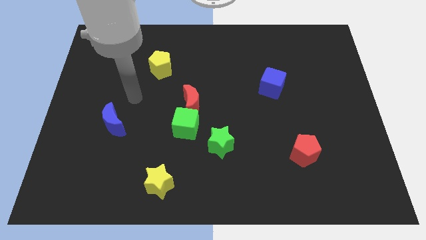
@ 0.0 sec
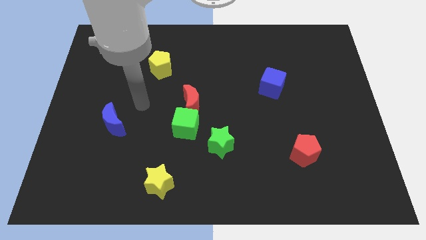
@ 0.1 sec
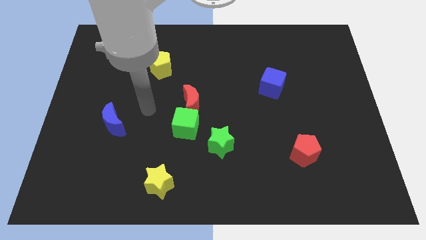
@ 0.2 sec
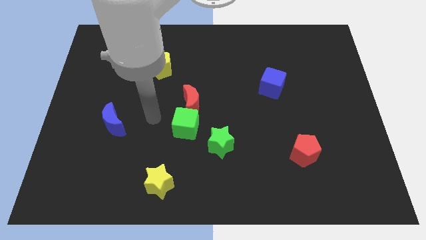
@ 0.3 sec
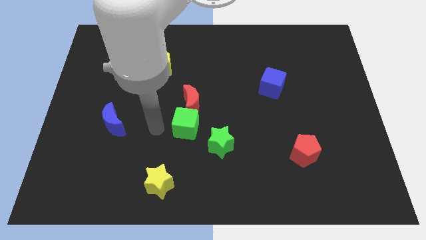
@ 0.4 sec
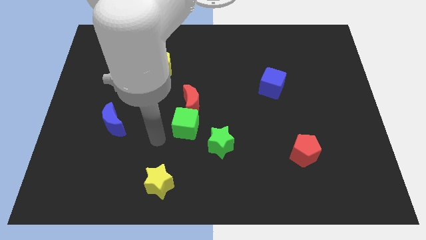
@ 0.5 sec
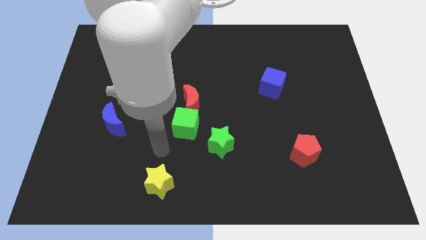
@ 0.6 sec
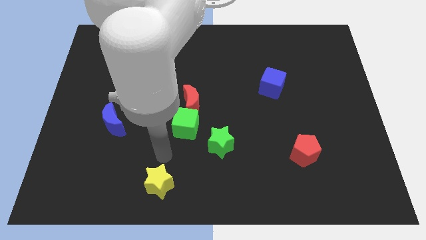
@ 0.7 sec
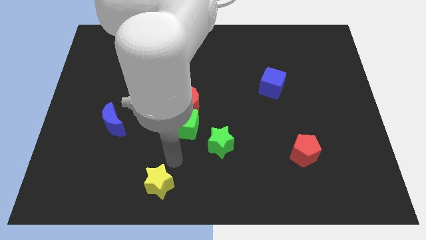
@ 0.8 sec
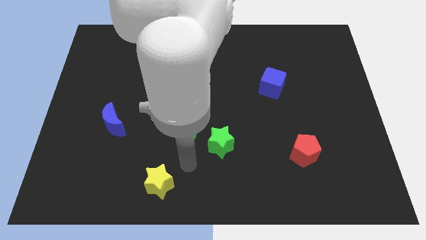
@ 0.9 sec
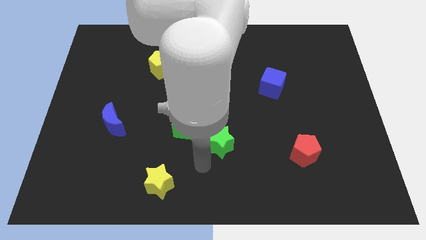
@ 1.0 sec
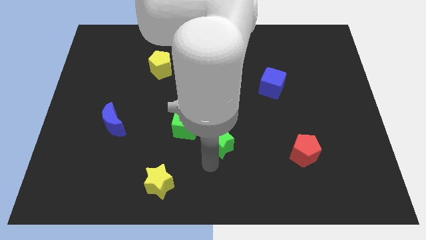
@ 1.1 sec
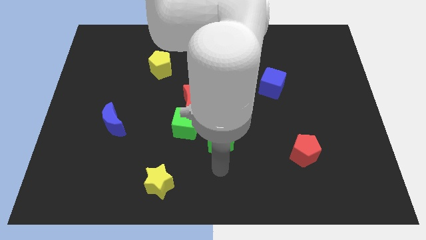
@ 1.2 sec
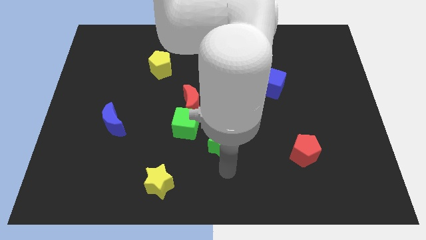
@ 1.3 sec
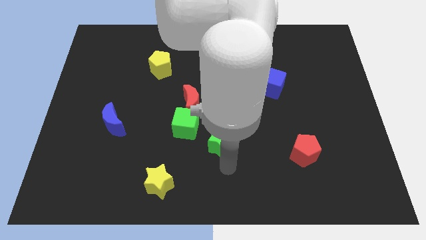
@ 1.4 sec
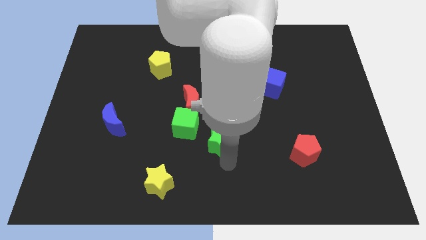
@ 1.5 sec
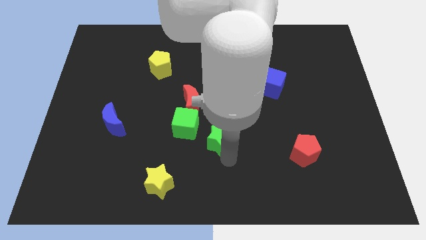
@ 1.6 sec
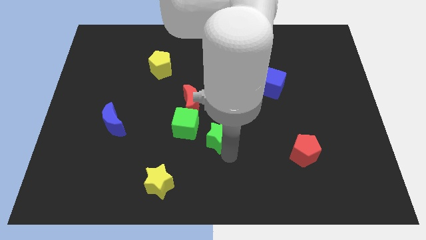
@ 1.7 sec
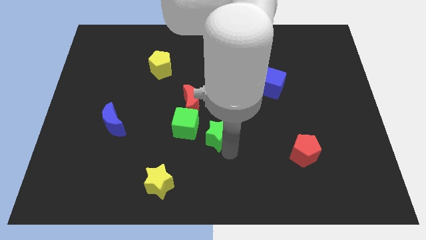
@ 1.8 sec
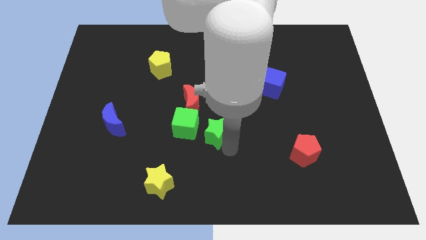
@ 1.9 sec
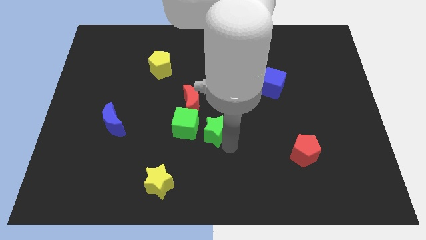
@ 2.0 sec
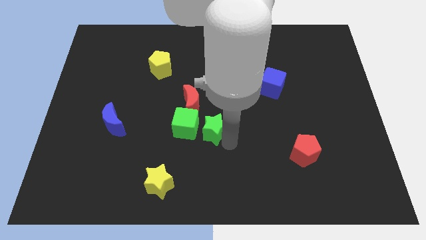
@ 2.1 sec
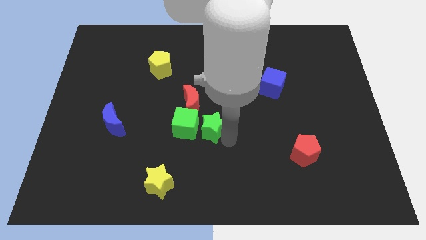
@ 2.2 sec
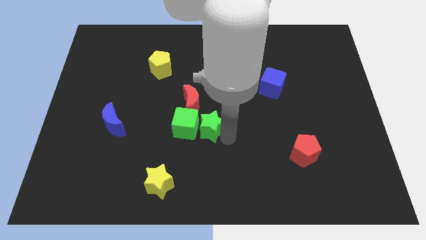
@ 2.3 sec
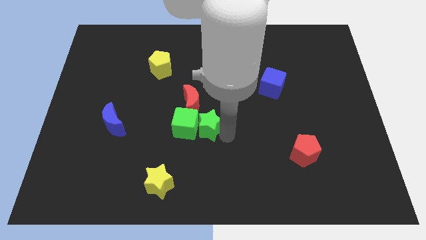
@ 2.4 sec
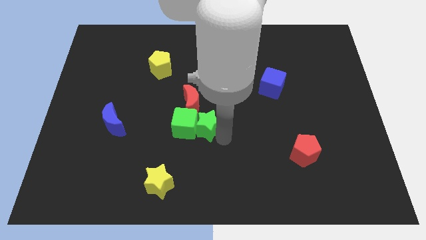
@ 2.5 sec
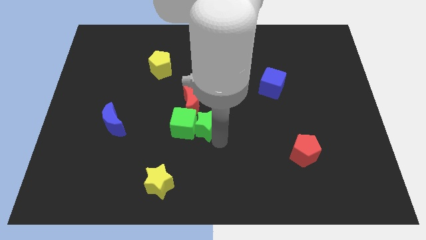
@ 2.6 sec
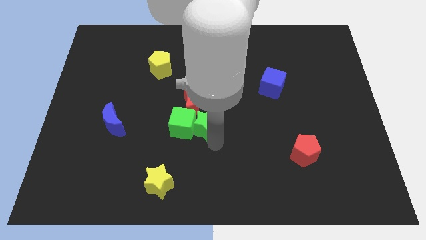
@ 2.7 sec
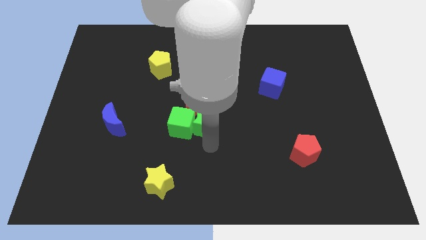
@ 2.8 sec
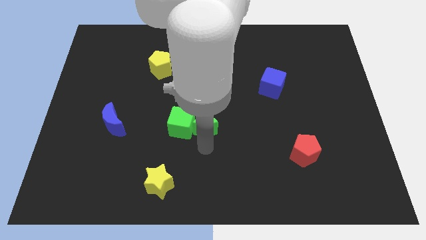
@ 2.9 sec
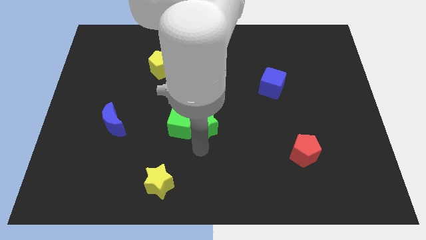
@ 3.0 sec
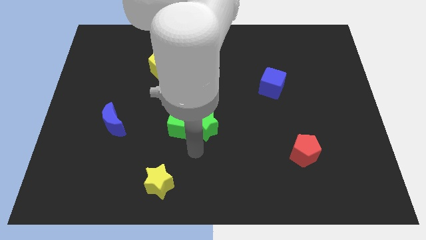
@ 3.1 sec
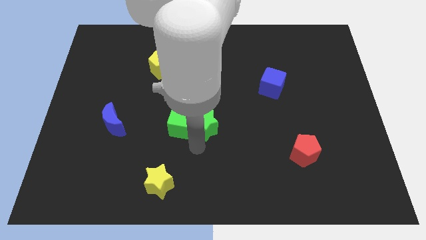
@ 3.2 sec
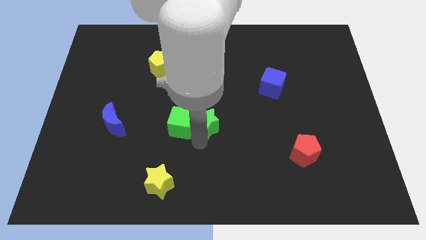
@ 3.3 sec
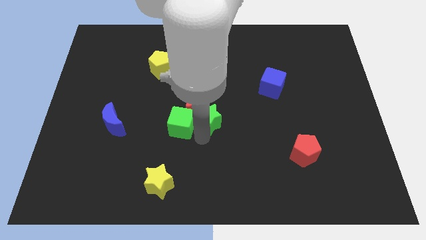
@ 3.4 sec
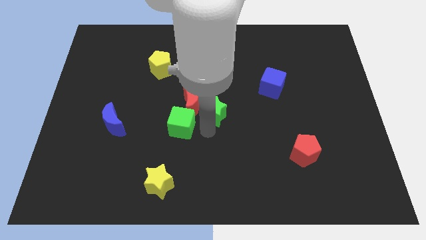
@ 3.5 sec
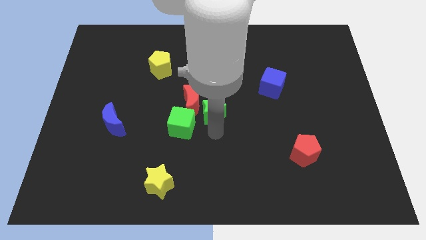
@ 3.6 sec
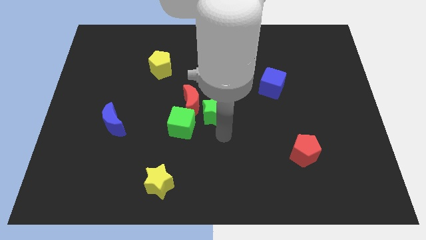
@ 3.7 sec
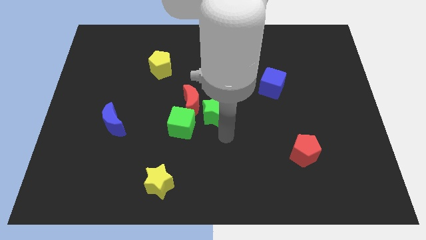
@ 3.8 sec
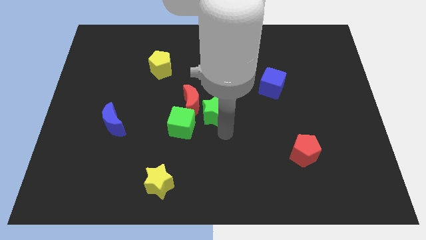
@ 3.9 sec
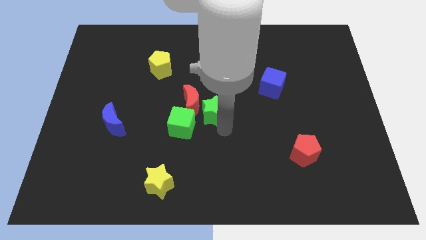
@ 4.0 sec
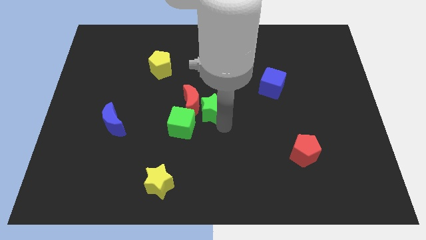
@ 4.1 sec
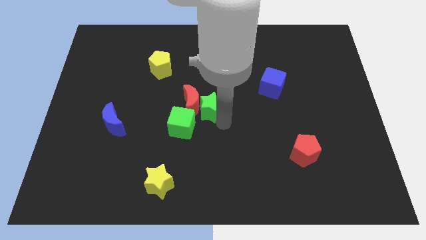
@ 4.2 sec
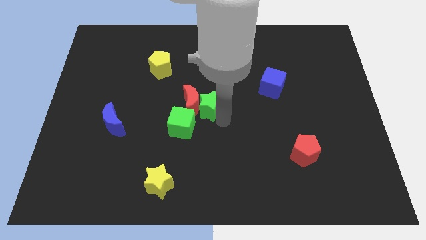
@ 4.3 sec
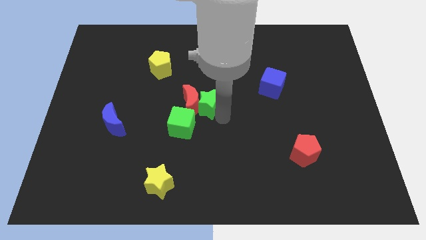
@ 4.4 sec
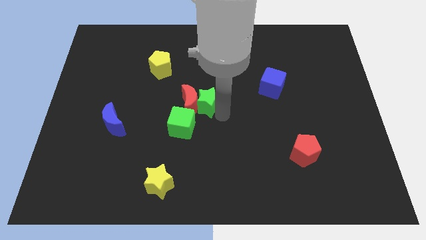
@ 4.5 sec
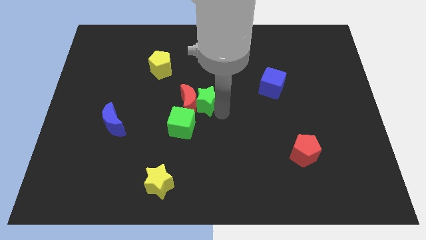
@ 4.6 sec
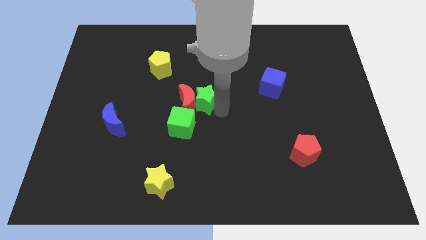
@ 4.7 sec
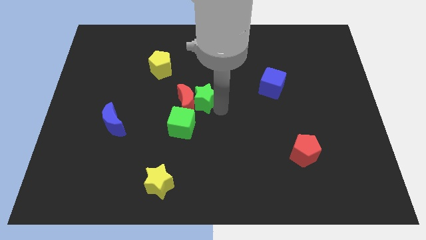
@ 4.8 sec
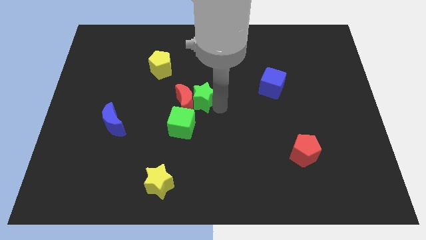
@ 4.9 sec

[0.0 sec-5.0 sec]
put the green star to the top side of the green cube

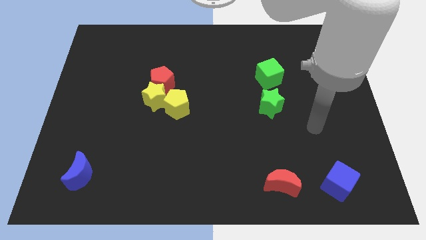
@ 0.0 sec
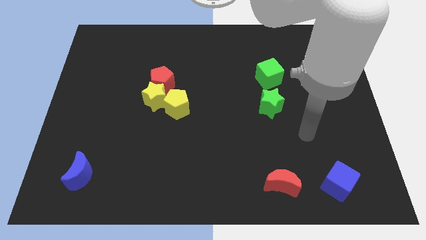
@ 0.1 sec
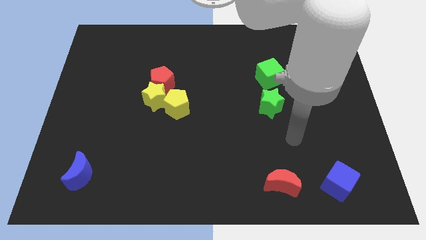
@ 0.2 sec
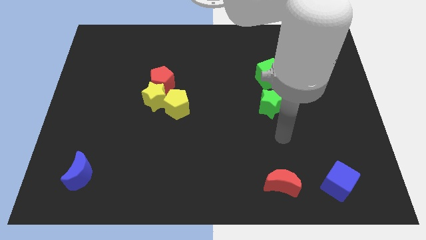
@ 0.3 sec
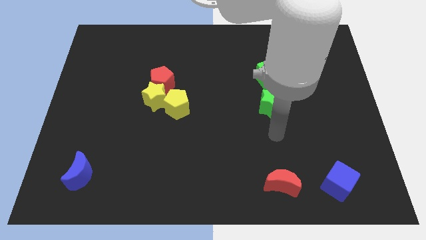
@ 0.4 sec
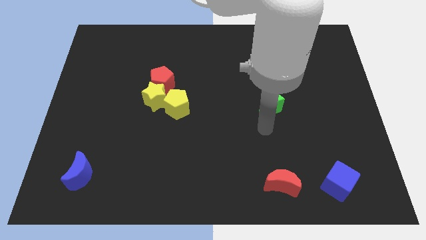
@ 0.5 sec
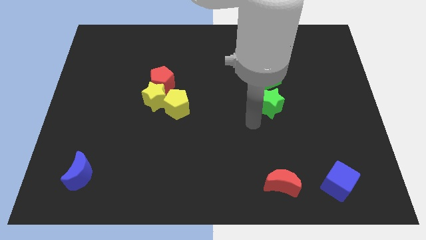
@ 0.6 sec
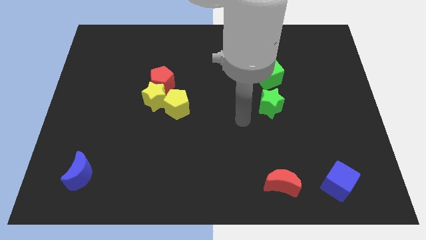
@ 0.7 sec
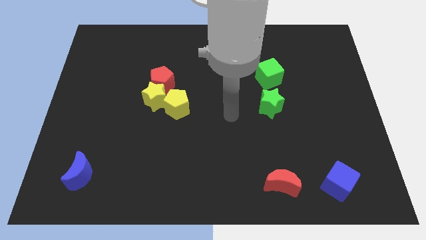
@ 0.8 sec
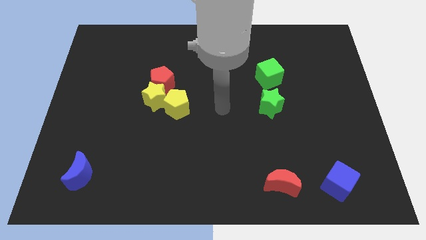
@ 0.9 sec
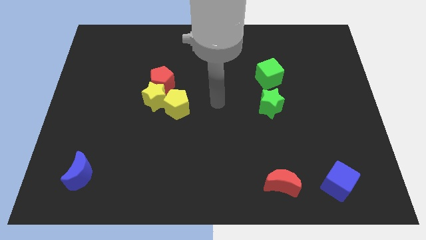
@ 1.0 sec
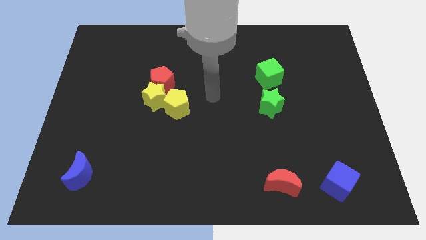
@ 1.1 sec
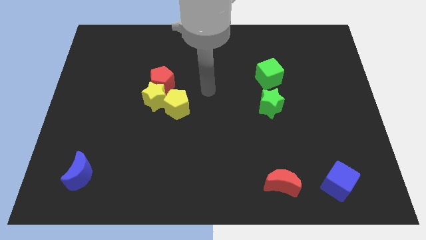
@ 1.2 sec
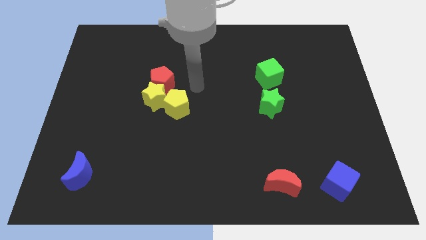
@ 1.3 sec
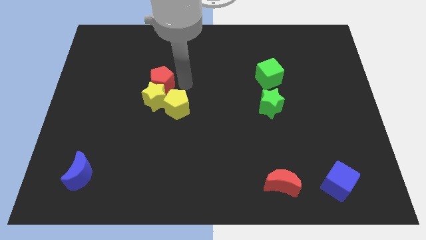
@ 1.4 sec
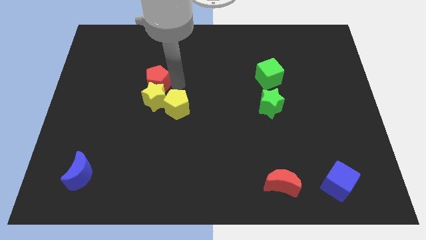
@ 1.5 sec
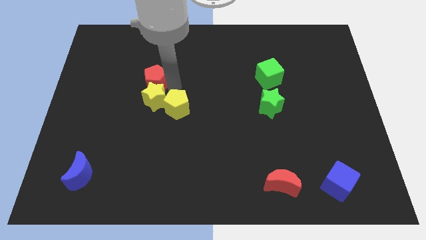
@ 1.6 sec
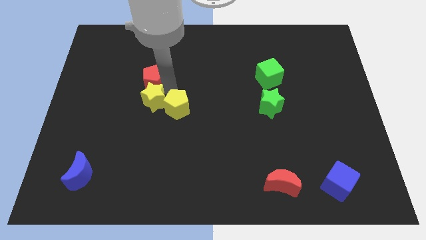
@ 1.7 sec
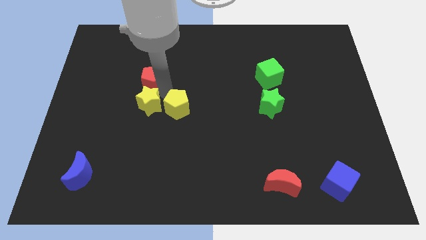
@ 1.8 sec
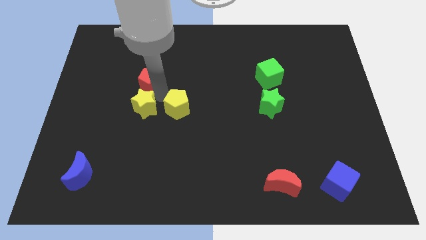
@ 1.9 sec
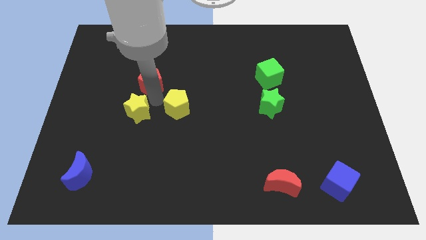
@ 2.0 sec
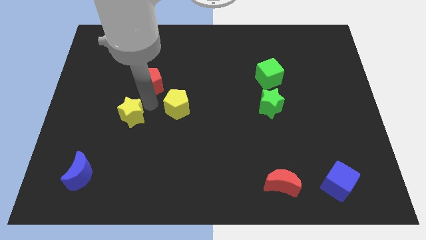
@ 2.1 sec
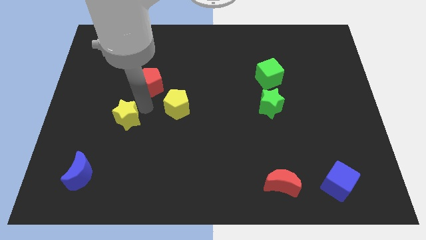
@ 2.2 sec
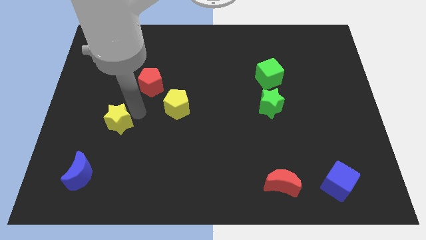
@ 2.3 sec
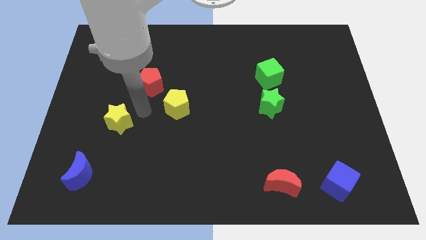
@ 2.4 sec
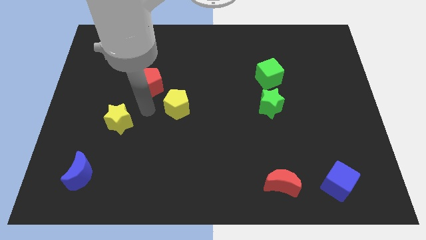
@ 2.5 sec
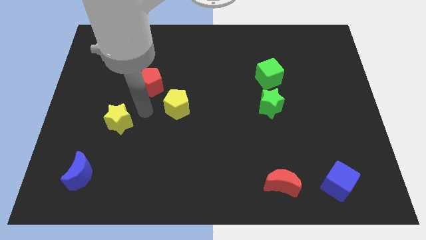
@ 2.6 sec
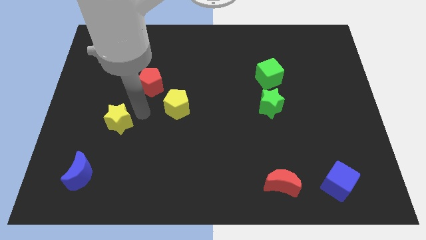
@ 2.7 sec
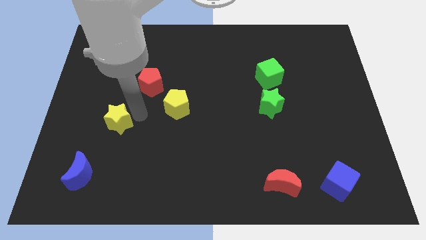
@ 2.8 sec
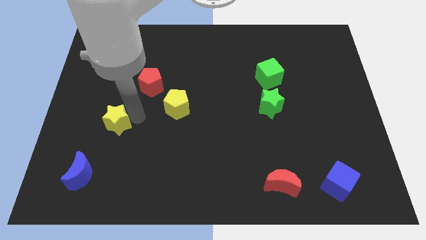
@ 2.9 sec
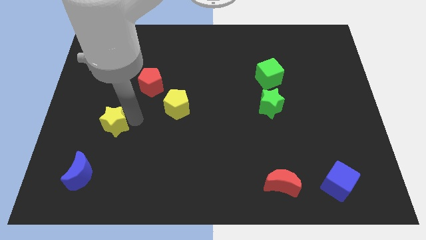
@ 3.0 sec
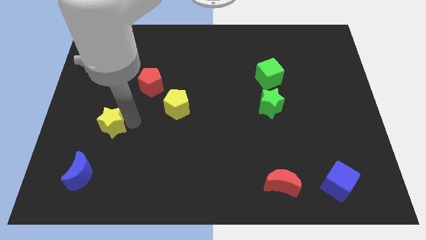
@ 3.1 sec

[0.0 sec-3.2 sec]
put the yellow star to the top of the blue moon
